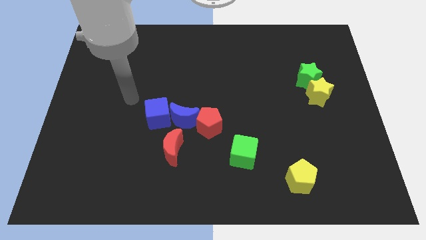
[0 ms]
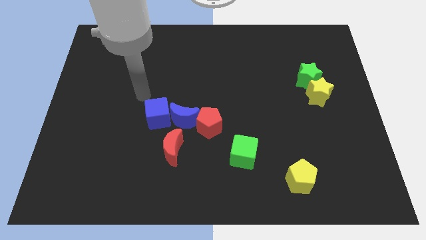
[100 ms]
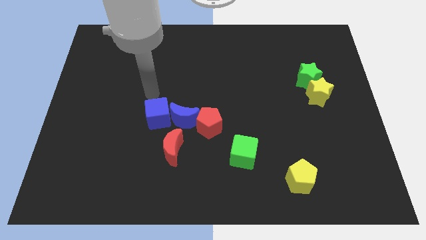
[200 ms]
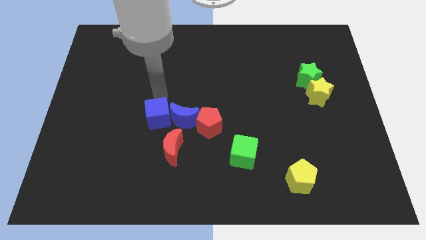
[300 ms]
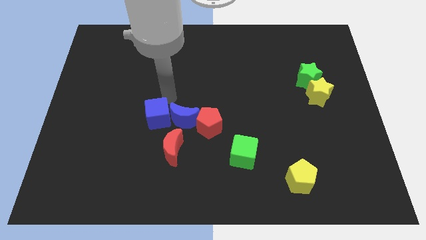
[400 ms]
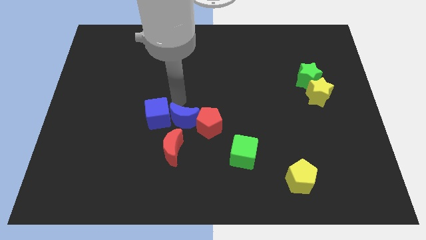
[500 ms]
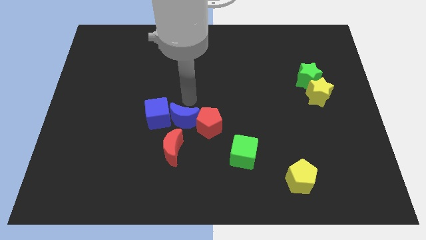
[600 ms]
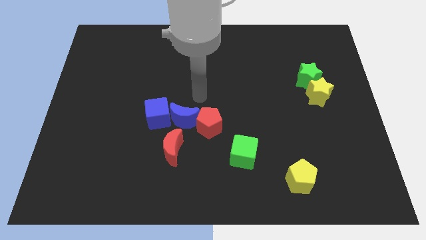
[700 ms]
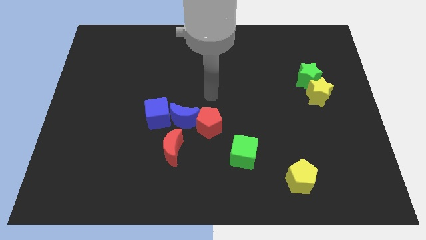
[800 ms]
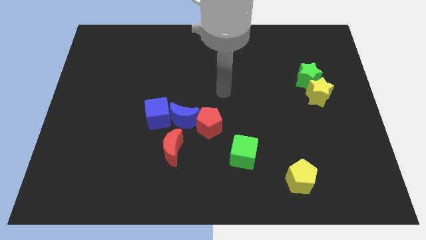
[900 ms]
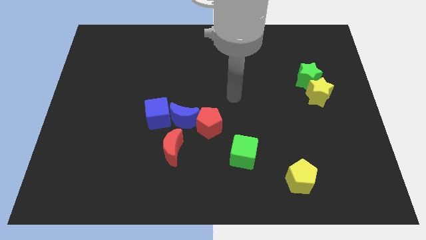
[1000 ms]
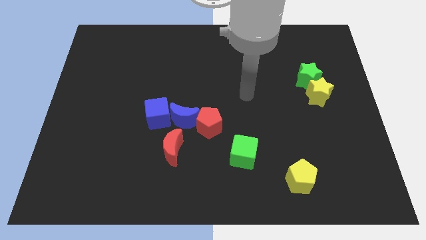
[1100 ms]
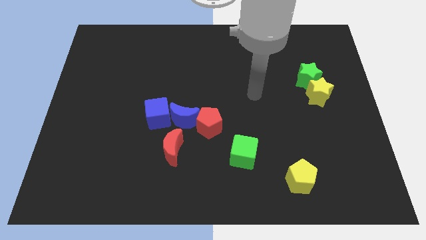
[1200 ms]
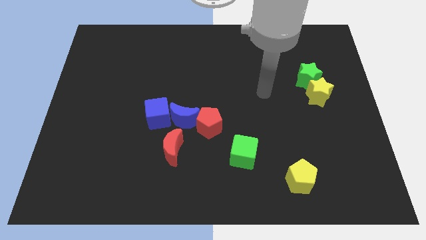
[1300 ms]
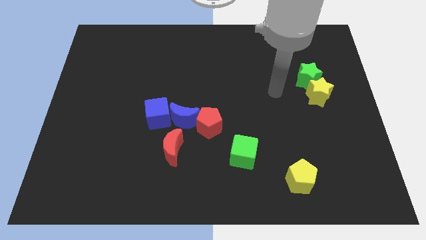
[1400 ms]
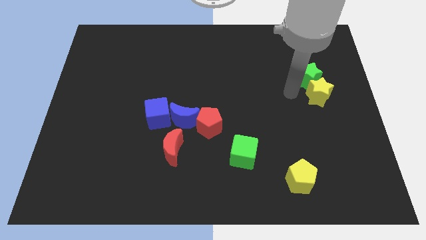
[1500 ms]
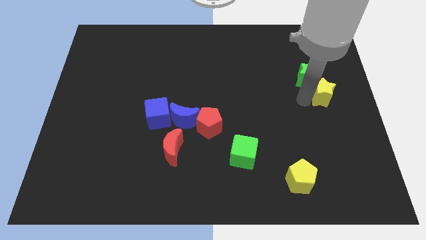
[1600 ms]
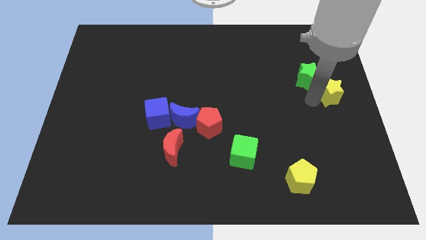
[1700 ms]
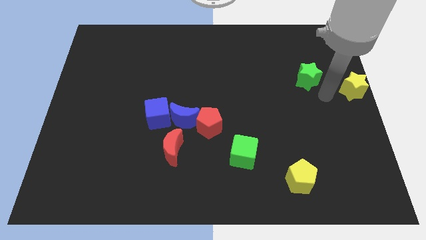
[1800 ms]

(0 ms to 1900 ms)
pull the green star apart from the yellow star

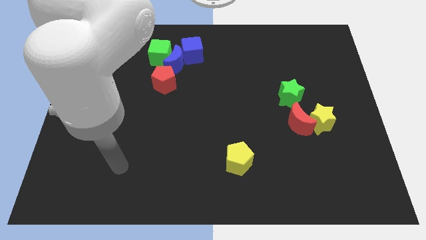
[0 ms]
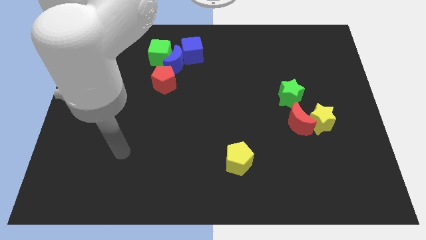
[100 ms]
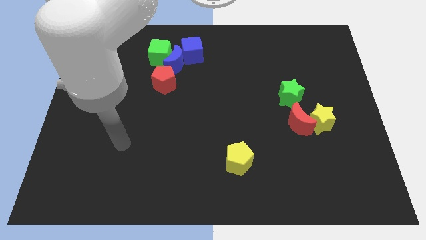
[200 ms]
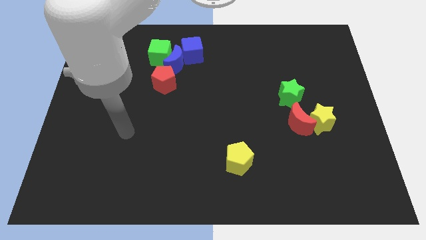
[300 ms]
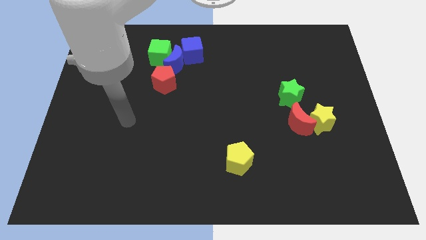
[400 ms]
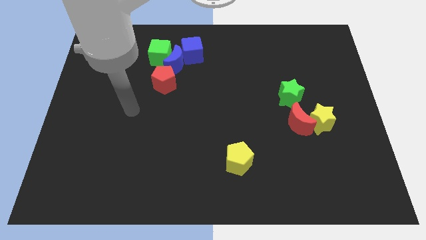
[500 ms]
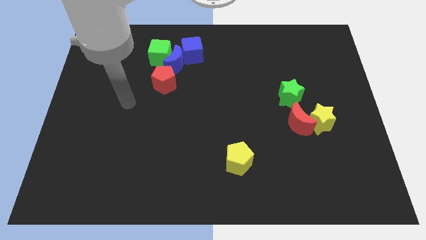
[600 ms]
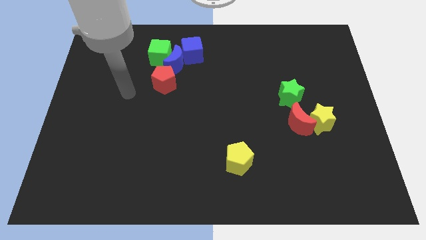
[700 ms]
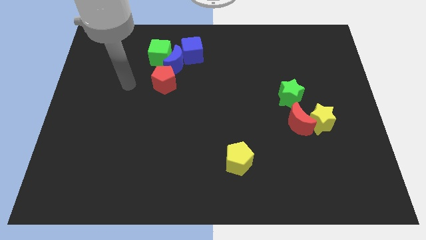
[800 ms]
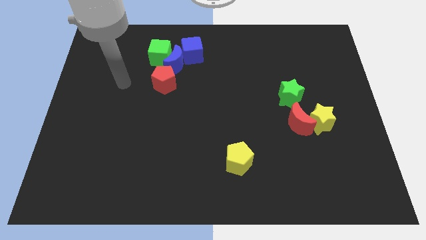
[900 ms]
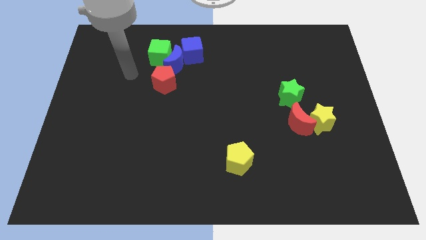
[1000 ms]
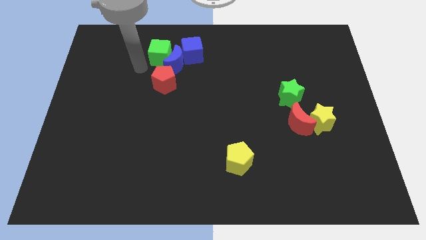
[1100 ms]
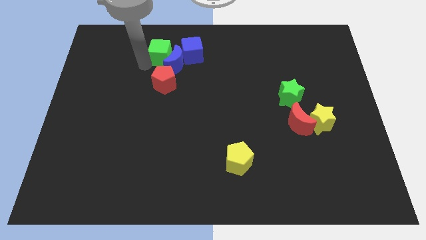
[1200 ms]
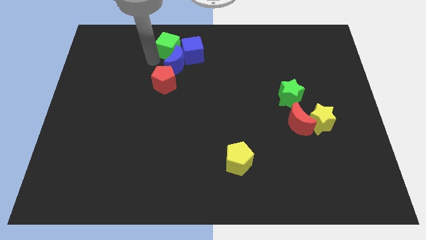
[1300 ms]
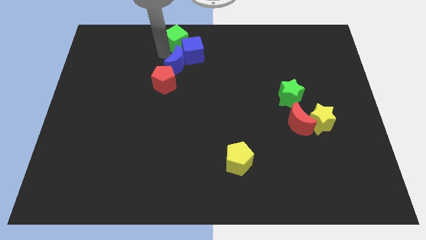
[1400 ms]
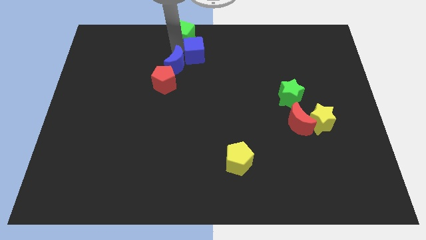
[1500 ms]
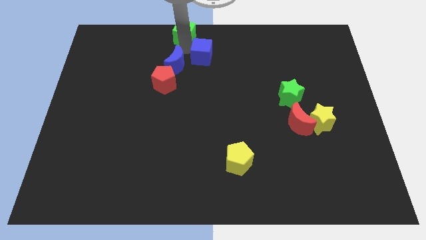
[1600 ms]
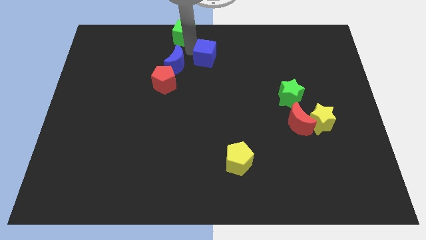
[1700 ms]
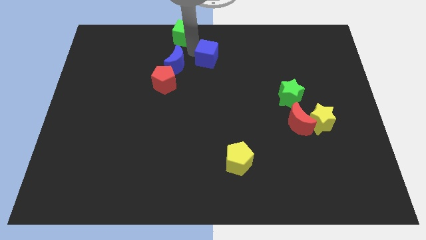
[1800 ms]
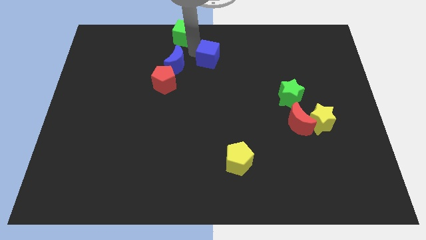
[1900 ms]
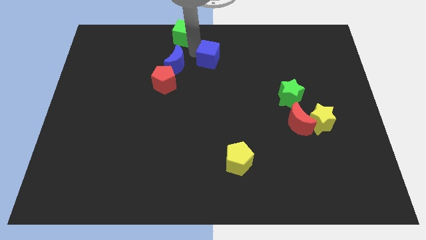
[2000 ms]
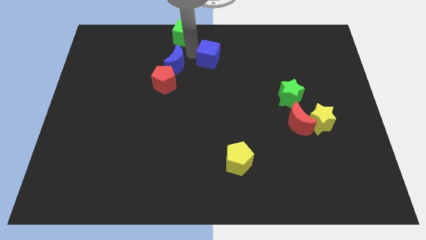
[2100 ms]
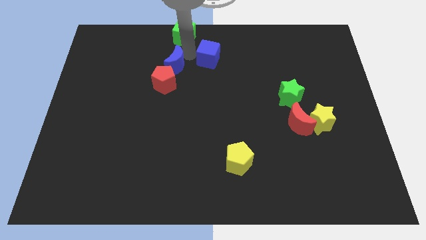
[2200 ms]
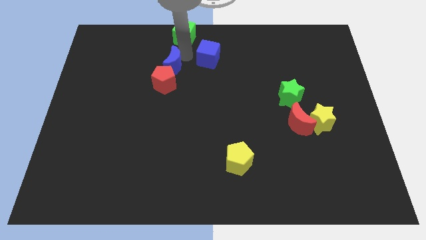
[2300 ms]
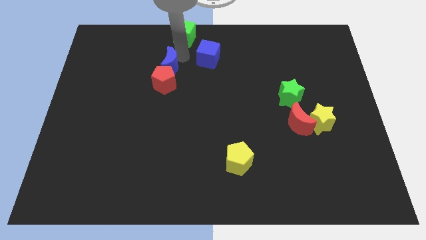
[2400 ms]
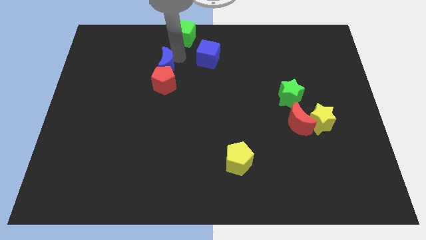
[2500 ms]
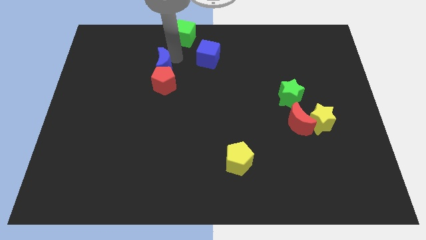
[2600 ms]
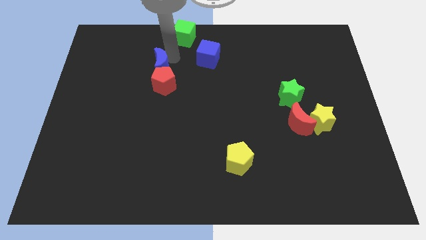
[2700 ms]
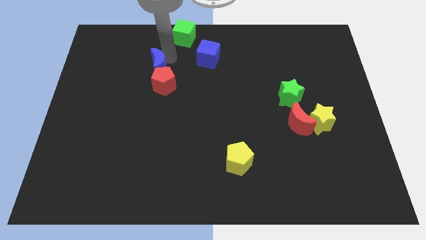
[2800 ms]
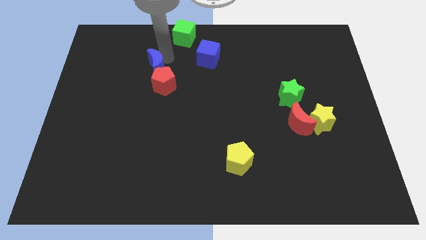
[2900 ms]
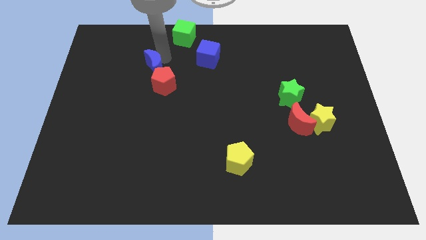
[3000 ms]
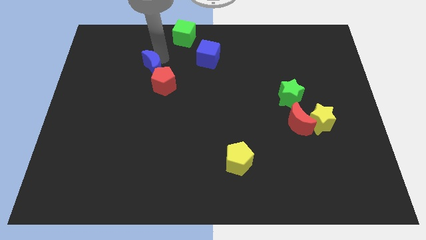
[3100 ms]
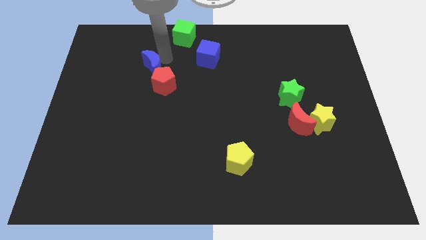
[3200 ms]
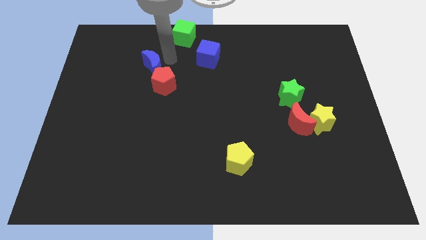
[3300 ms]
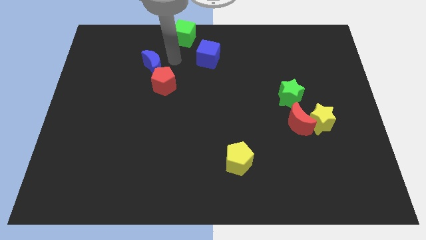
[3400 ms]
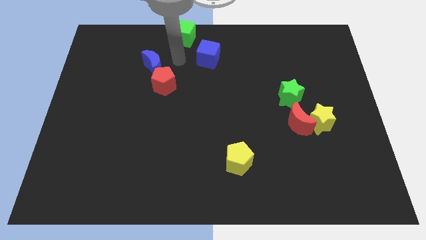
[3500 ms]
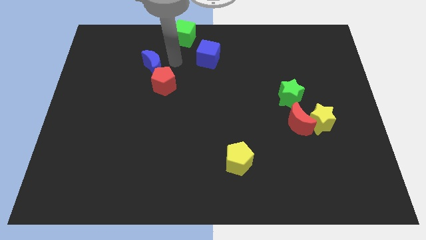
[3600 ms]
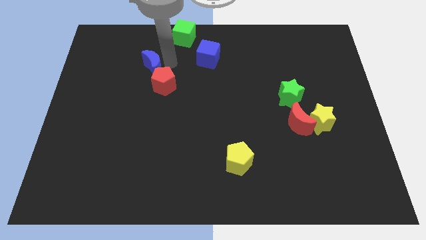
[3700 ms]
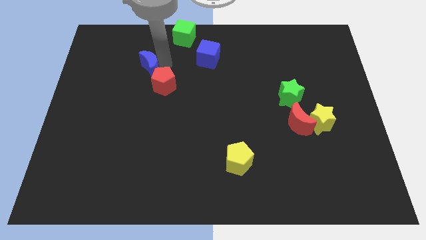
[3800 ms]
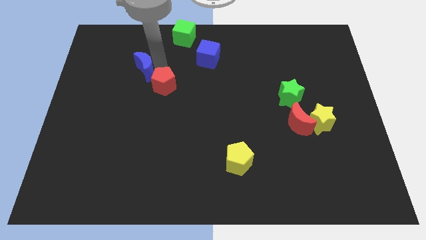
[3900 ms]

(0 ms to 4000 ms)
pull the blue moon apart from the group of blocks

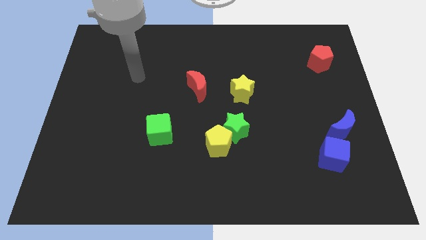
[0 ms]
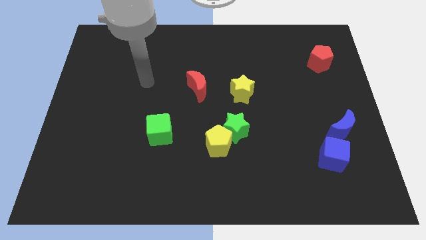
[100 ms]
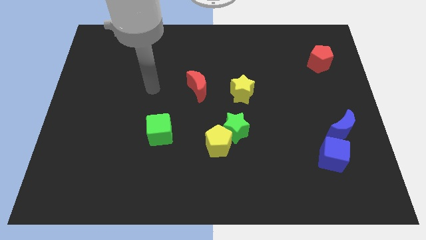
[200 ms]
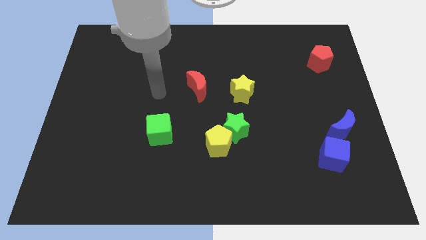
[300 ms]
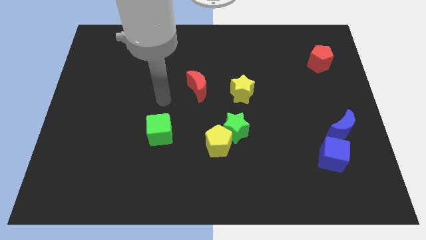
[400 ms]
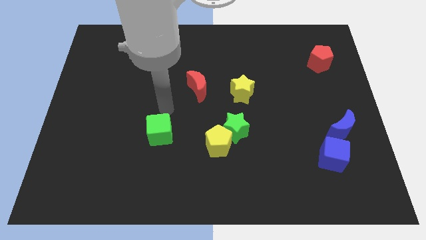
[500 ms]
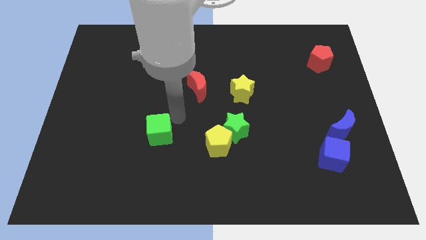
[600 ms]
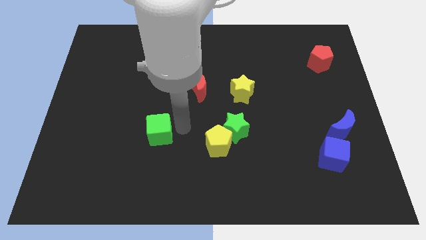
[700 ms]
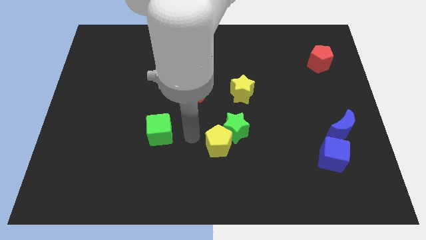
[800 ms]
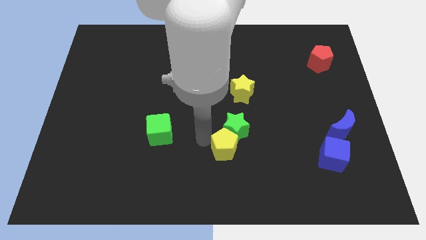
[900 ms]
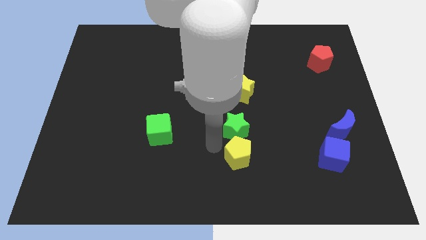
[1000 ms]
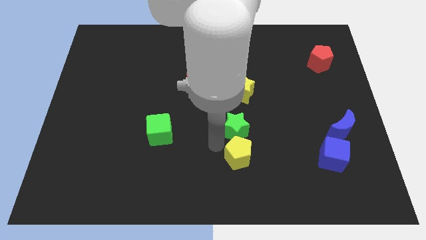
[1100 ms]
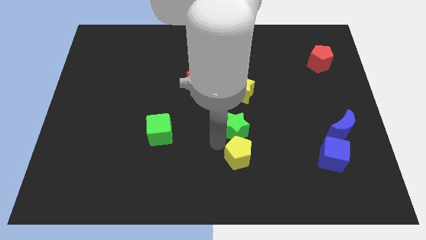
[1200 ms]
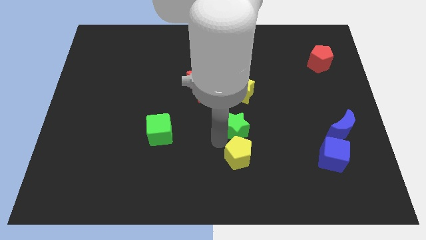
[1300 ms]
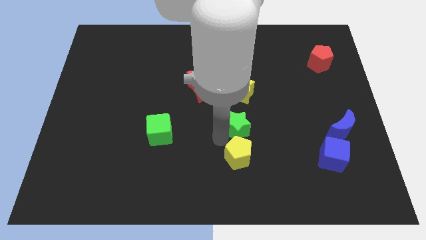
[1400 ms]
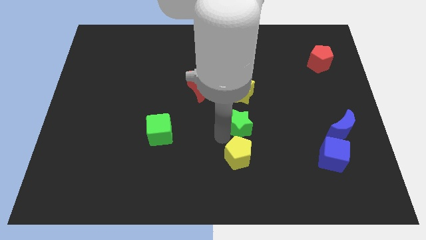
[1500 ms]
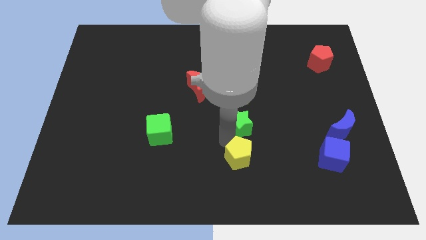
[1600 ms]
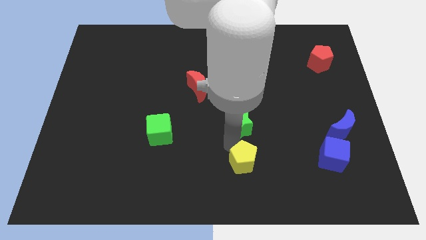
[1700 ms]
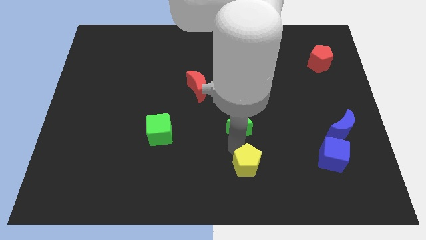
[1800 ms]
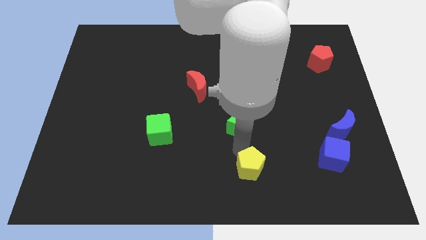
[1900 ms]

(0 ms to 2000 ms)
pull the green star apart from the yellow pentagon

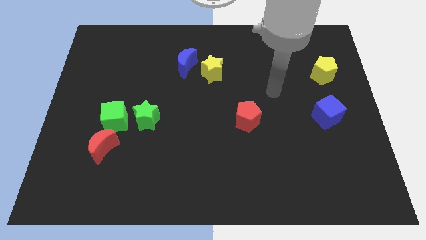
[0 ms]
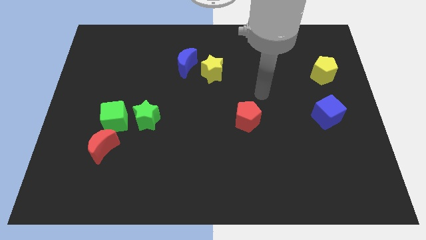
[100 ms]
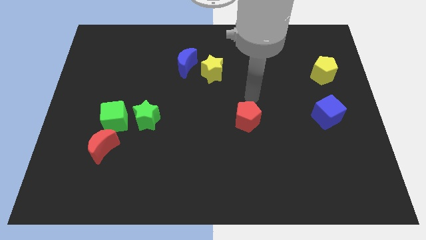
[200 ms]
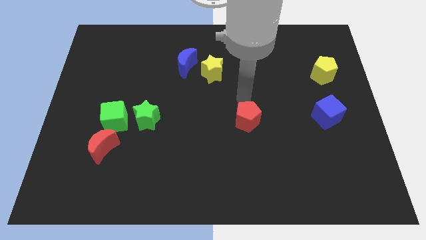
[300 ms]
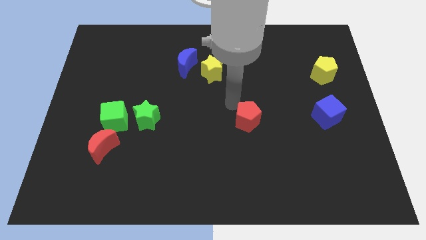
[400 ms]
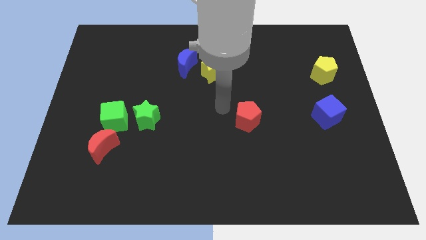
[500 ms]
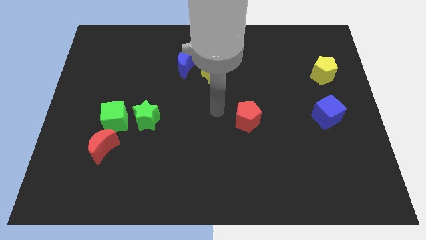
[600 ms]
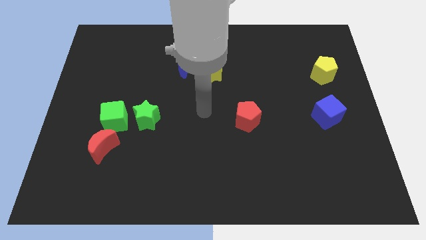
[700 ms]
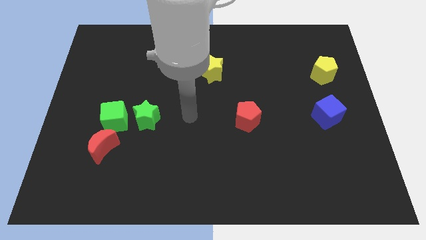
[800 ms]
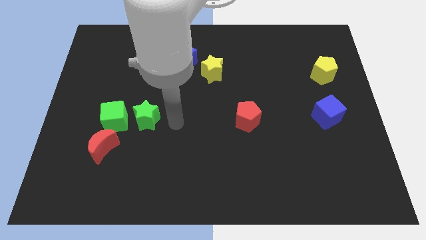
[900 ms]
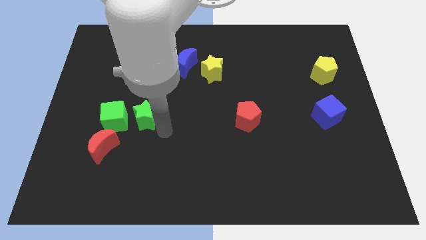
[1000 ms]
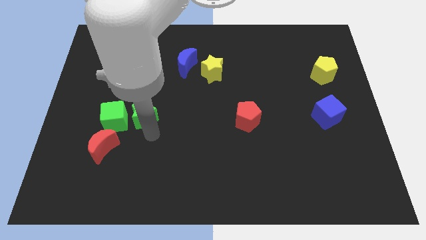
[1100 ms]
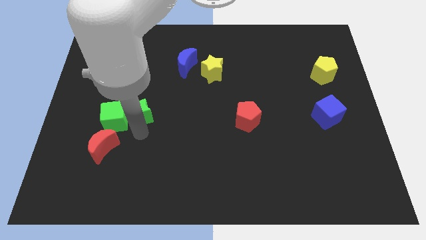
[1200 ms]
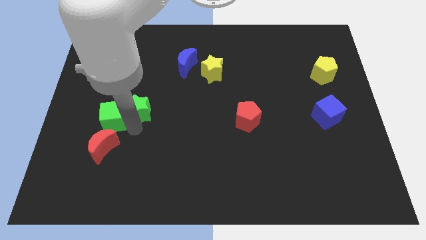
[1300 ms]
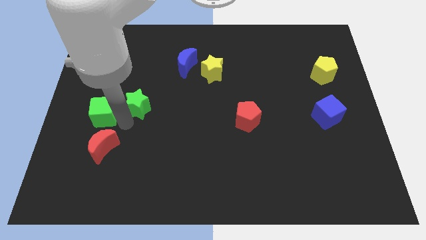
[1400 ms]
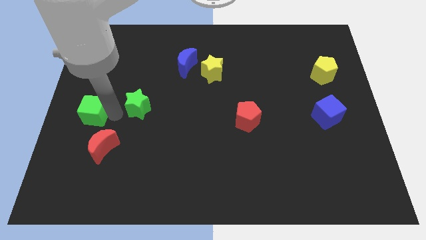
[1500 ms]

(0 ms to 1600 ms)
separate the green star from the green cube
